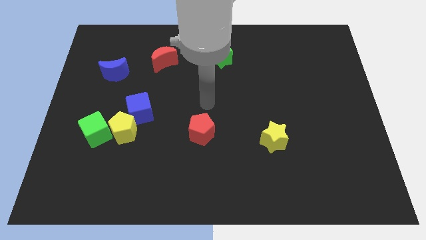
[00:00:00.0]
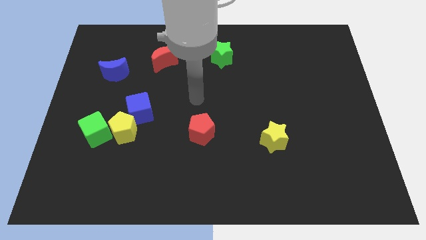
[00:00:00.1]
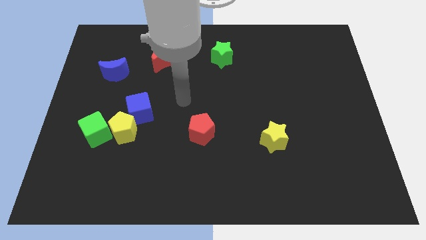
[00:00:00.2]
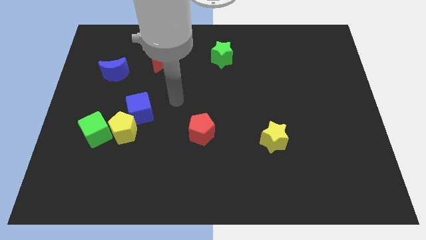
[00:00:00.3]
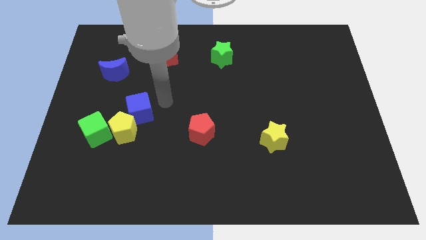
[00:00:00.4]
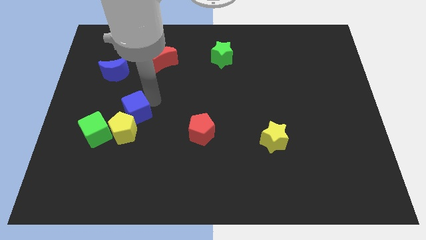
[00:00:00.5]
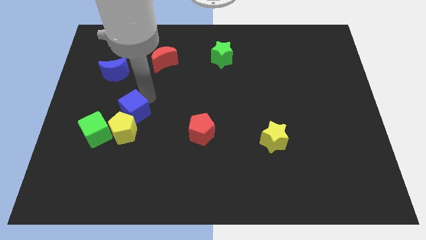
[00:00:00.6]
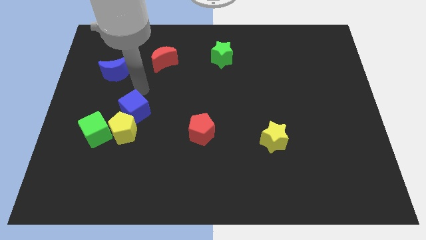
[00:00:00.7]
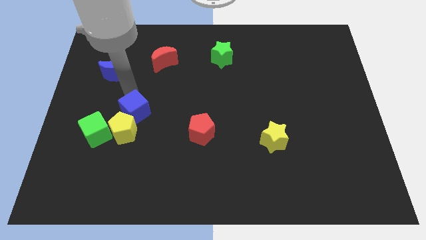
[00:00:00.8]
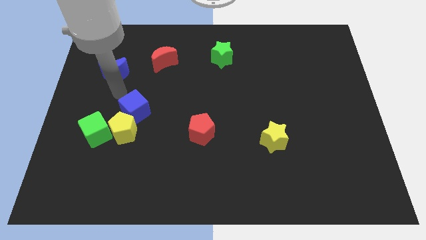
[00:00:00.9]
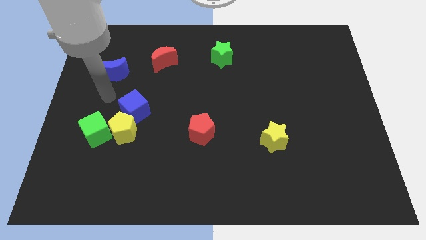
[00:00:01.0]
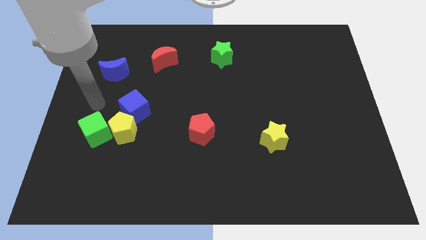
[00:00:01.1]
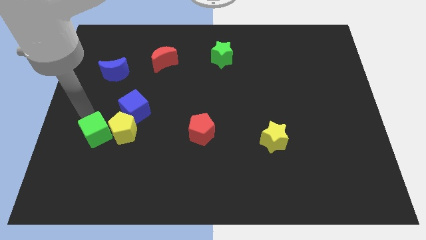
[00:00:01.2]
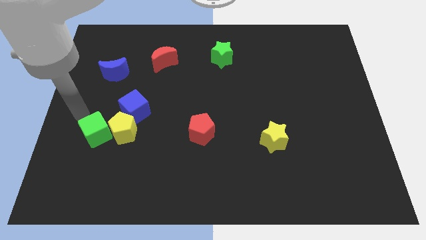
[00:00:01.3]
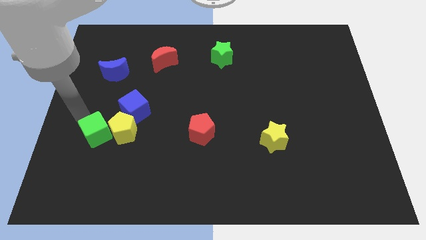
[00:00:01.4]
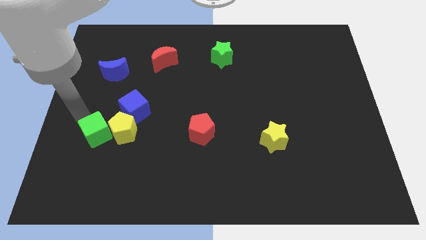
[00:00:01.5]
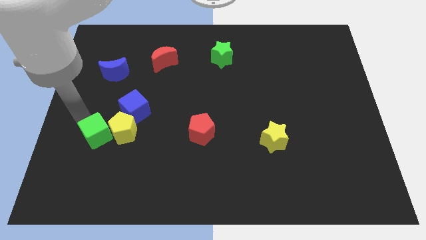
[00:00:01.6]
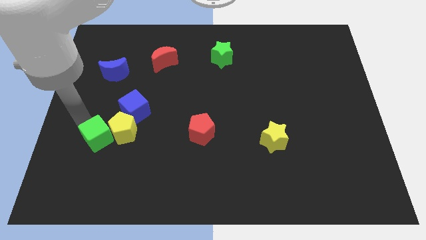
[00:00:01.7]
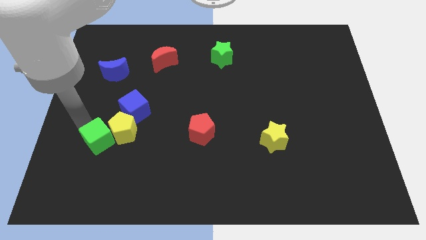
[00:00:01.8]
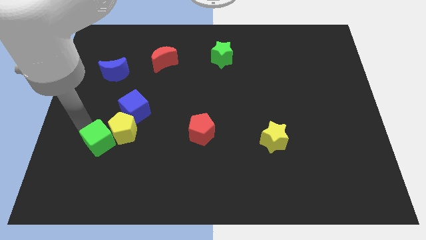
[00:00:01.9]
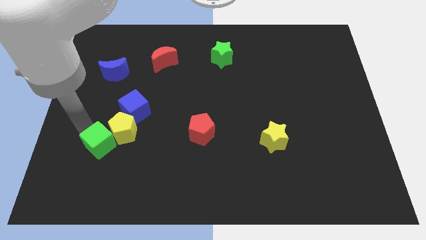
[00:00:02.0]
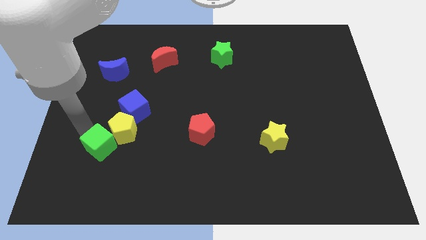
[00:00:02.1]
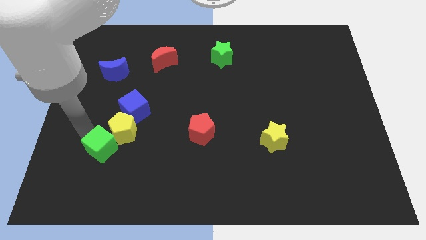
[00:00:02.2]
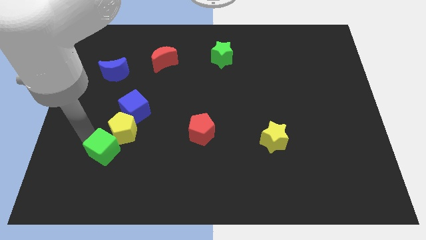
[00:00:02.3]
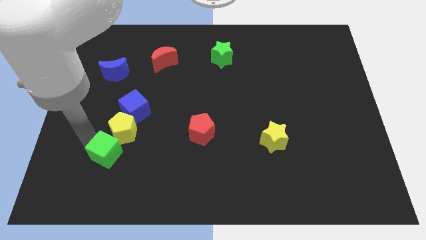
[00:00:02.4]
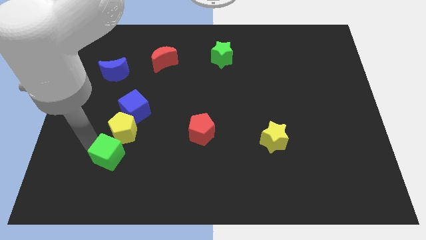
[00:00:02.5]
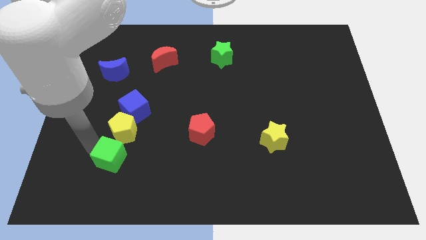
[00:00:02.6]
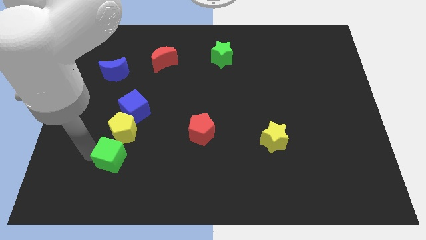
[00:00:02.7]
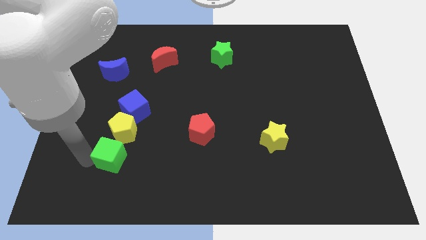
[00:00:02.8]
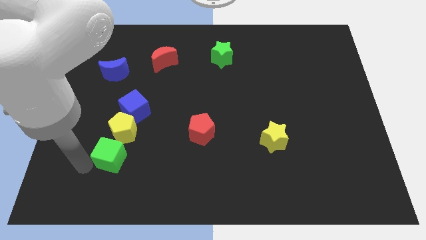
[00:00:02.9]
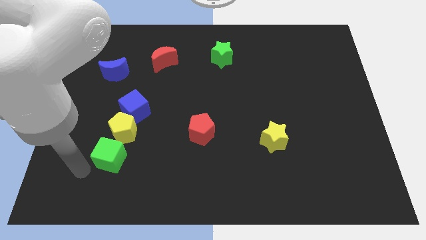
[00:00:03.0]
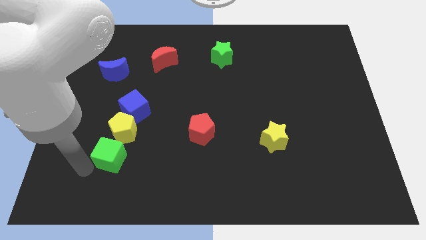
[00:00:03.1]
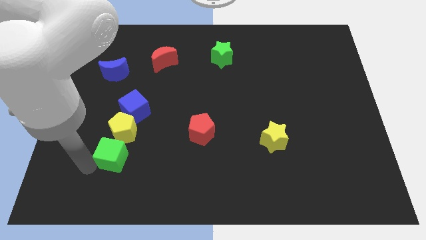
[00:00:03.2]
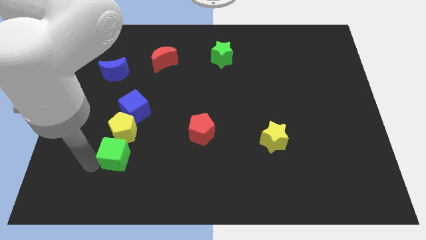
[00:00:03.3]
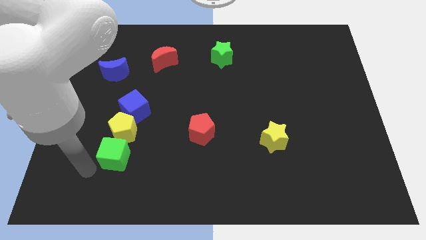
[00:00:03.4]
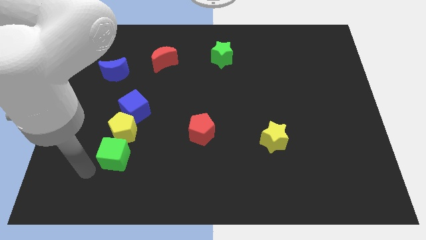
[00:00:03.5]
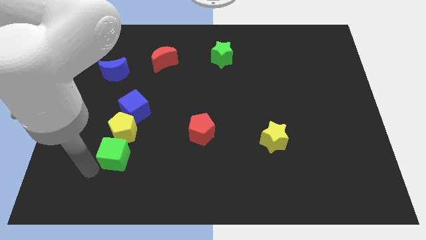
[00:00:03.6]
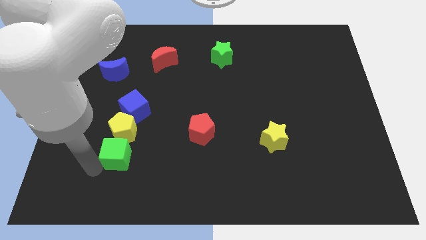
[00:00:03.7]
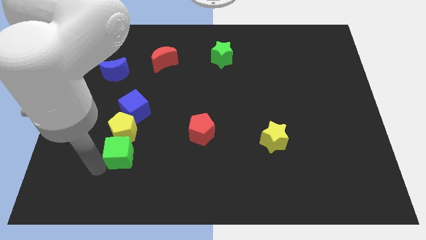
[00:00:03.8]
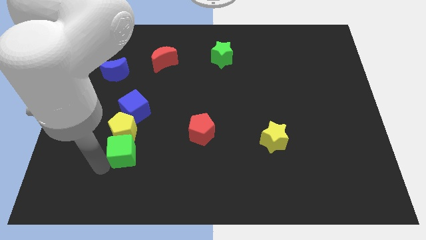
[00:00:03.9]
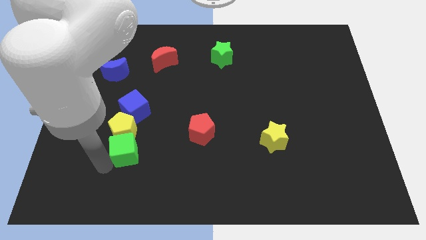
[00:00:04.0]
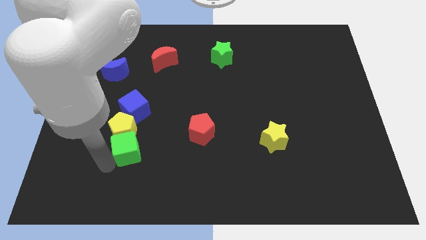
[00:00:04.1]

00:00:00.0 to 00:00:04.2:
move the green cube to the right a bit

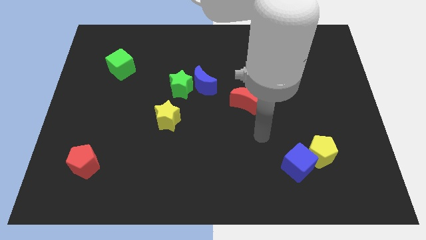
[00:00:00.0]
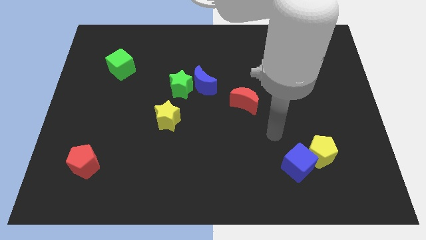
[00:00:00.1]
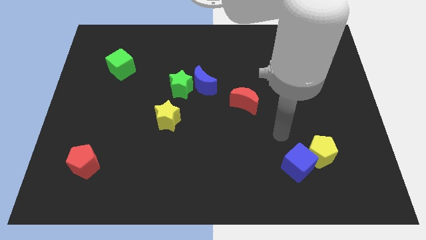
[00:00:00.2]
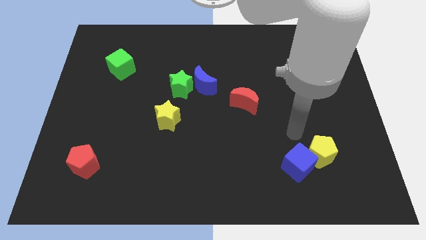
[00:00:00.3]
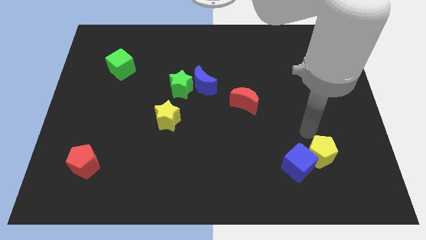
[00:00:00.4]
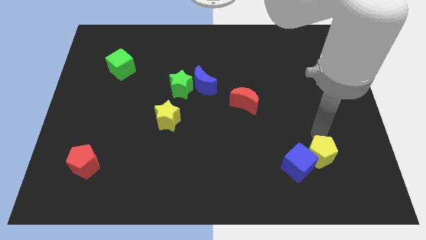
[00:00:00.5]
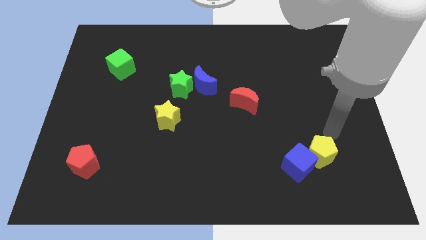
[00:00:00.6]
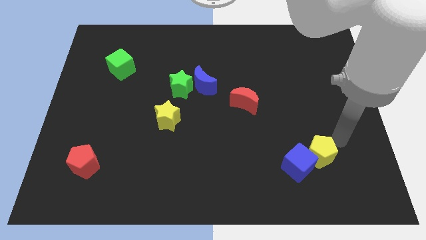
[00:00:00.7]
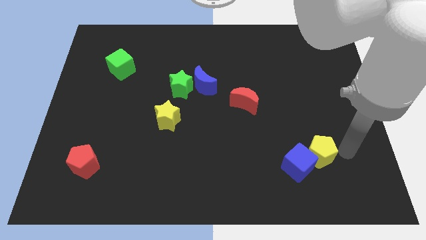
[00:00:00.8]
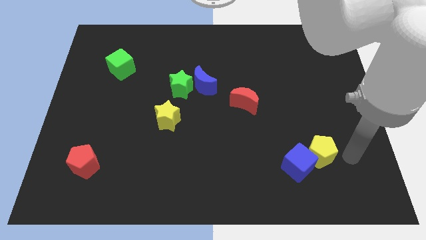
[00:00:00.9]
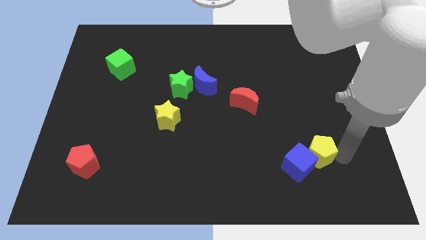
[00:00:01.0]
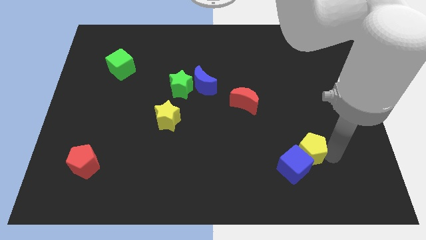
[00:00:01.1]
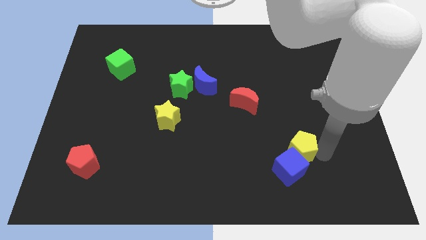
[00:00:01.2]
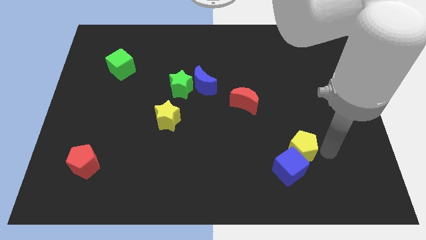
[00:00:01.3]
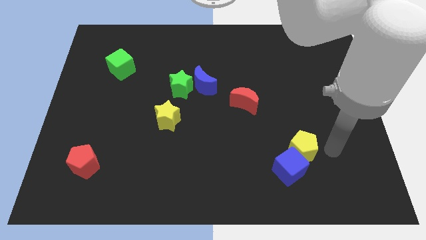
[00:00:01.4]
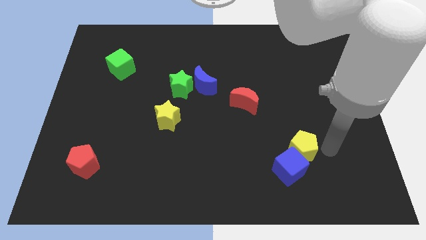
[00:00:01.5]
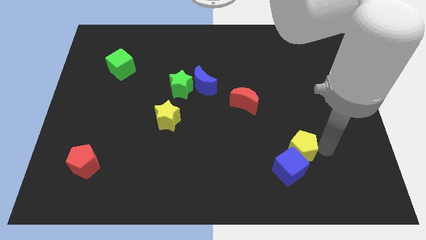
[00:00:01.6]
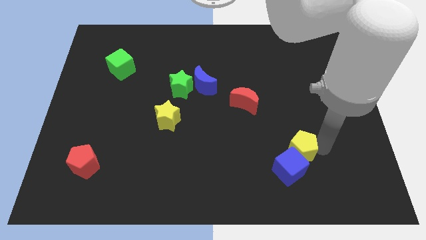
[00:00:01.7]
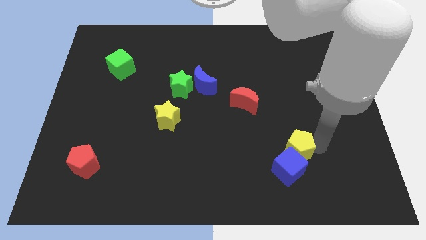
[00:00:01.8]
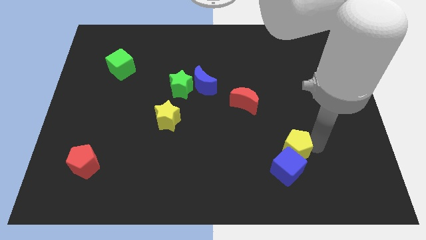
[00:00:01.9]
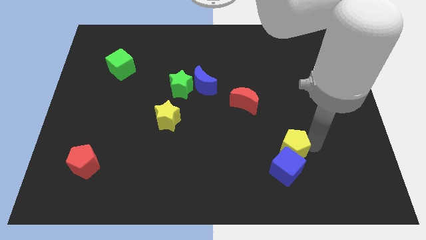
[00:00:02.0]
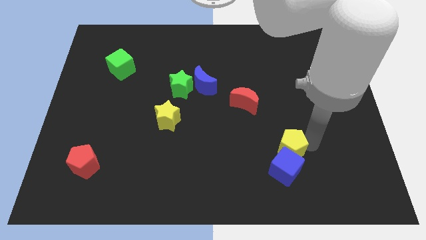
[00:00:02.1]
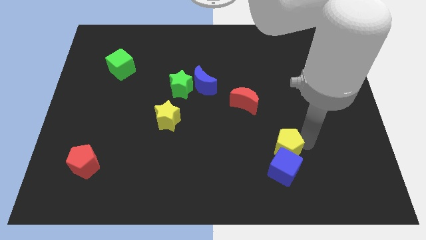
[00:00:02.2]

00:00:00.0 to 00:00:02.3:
move the yellow pentagon a little bit to the left

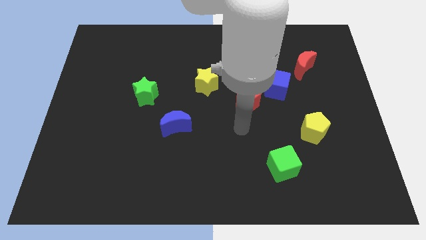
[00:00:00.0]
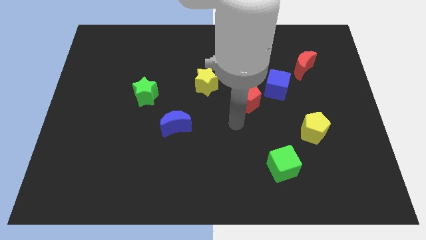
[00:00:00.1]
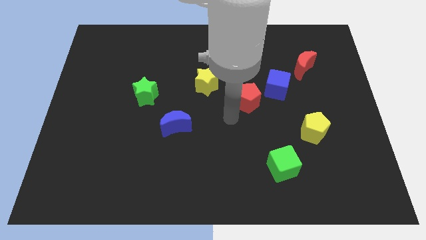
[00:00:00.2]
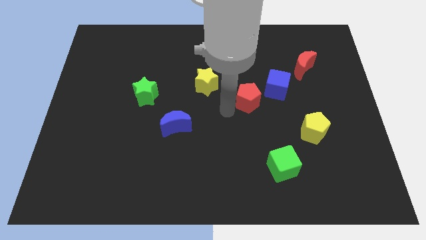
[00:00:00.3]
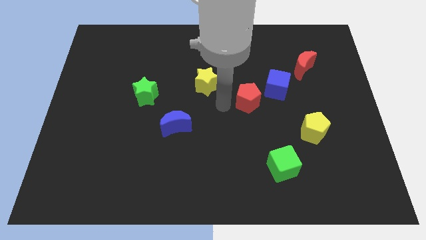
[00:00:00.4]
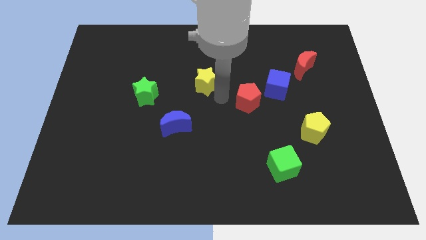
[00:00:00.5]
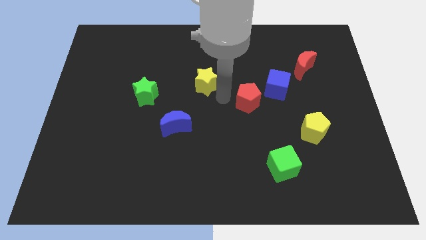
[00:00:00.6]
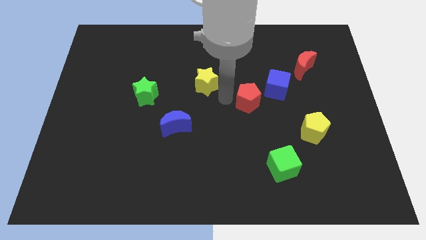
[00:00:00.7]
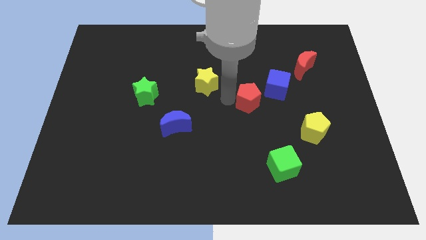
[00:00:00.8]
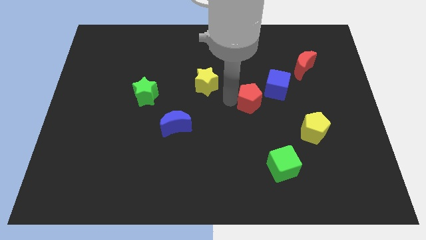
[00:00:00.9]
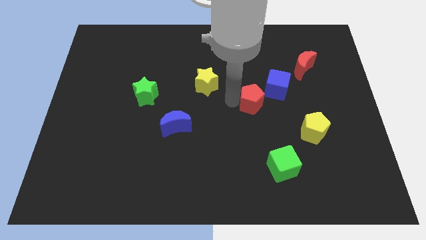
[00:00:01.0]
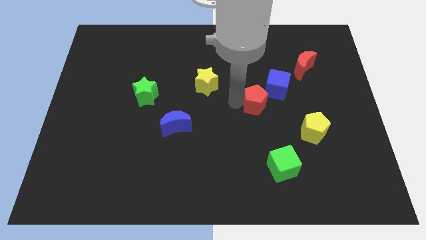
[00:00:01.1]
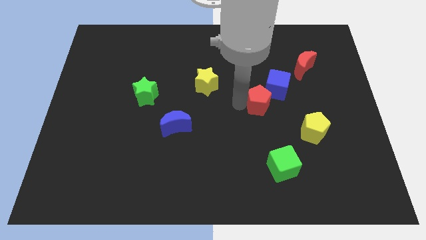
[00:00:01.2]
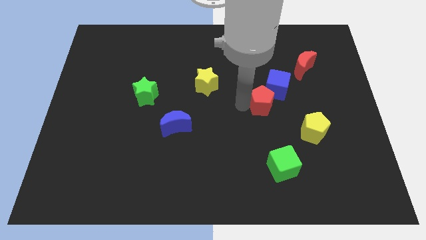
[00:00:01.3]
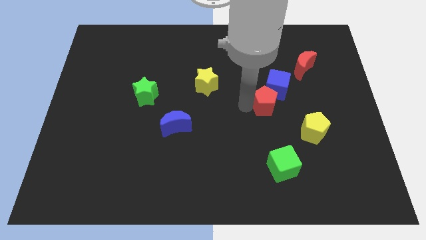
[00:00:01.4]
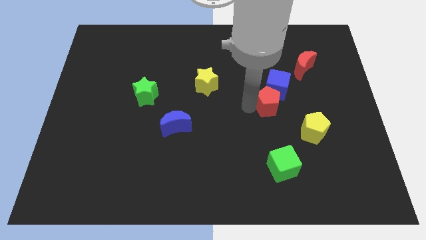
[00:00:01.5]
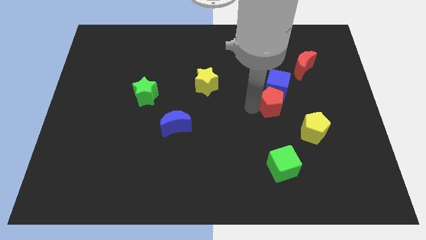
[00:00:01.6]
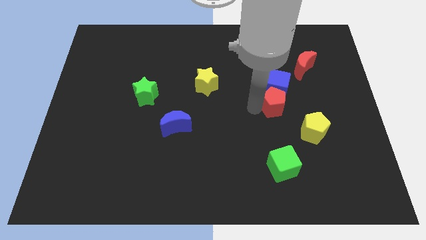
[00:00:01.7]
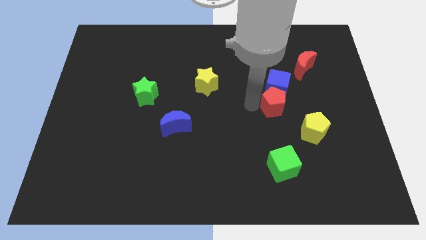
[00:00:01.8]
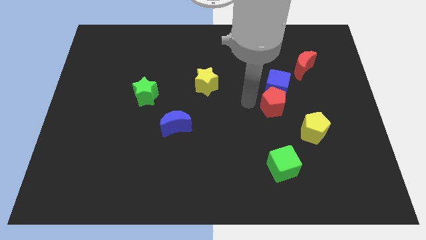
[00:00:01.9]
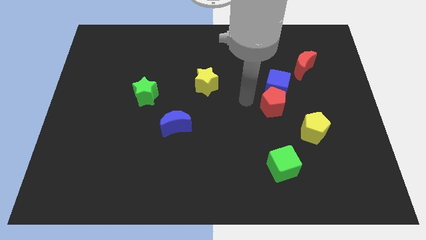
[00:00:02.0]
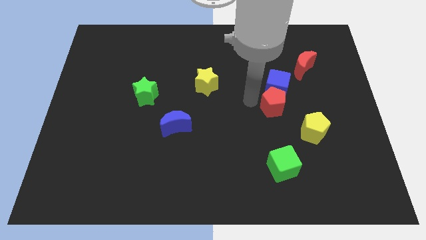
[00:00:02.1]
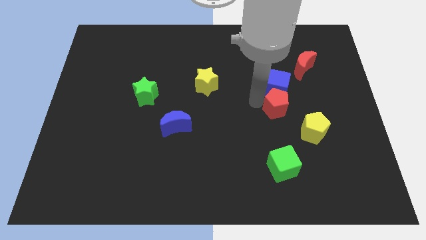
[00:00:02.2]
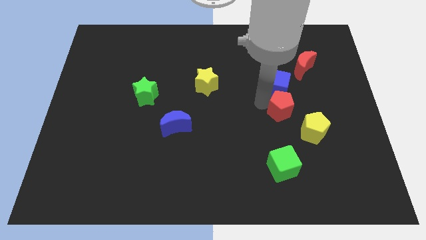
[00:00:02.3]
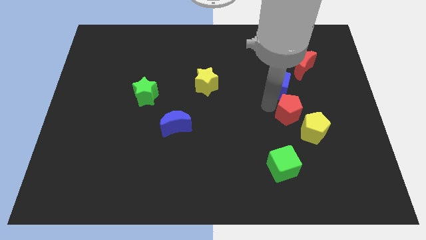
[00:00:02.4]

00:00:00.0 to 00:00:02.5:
slightly push the red pentagon down and then right
